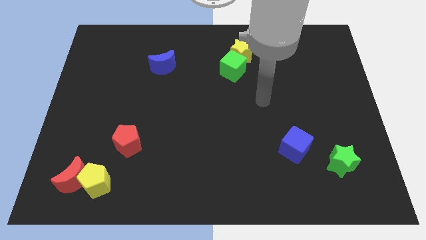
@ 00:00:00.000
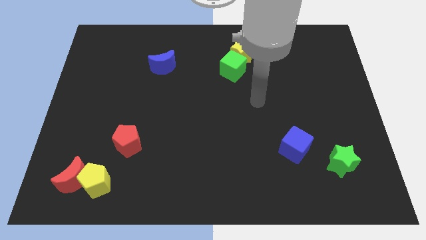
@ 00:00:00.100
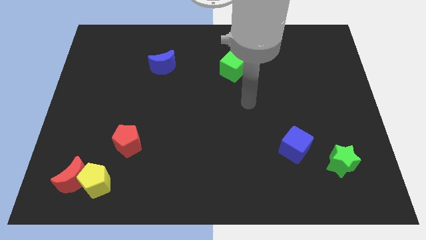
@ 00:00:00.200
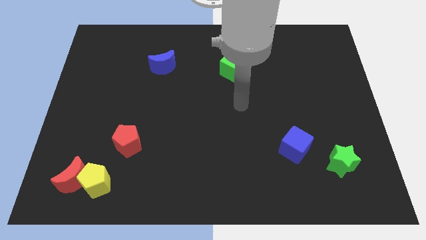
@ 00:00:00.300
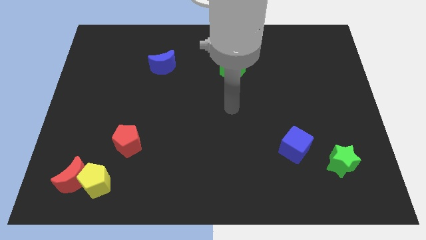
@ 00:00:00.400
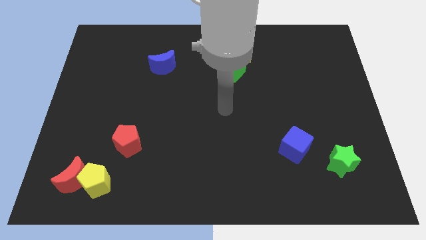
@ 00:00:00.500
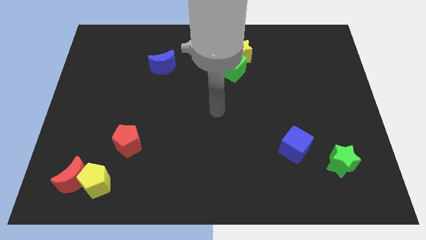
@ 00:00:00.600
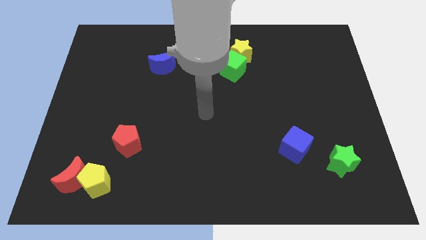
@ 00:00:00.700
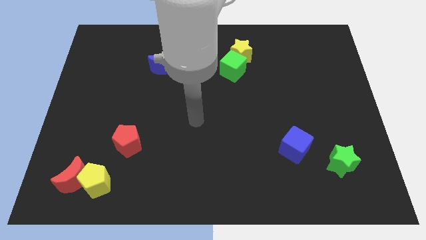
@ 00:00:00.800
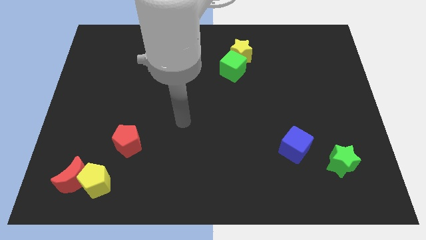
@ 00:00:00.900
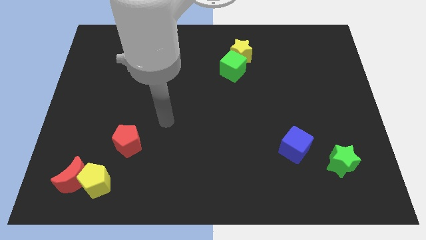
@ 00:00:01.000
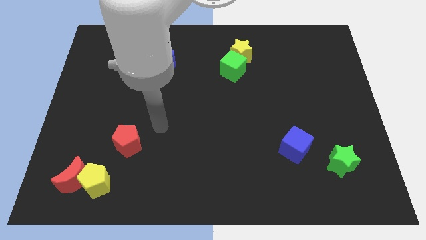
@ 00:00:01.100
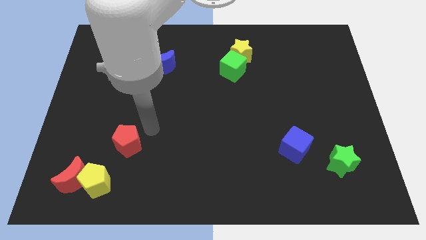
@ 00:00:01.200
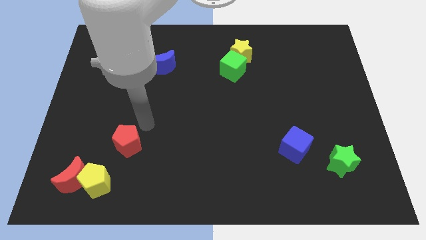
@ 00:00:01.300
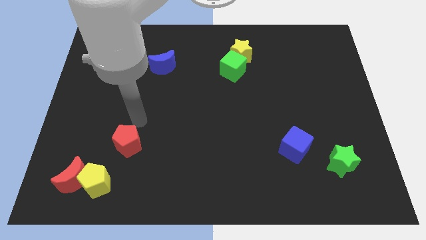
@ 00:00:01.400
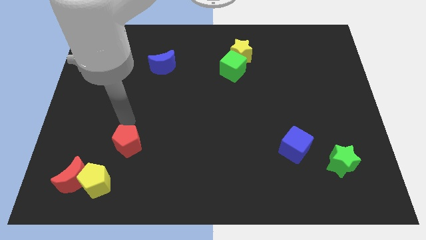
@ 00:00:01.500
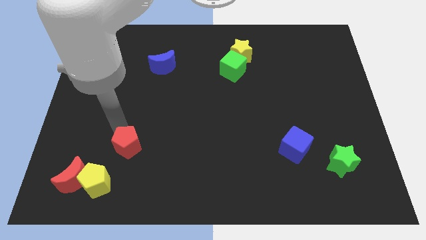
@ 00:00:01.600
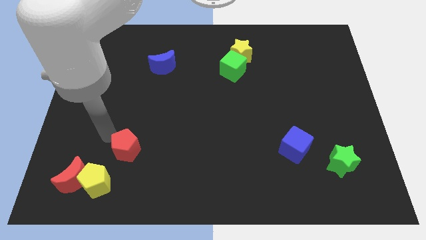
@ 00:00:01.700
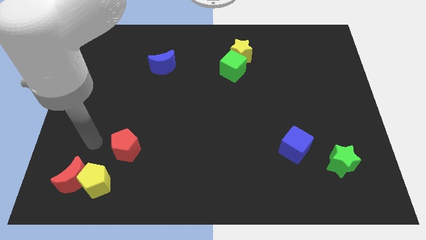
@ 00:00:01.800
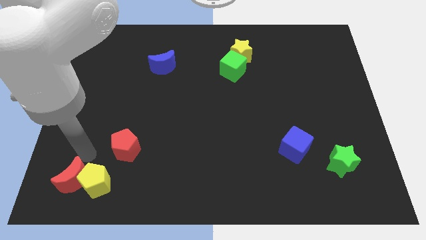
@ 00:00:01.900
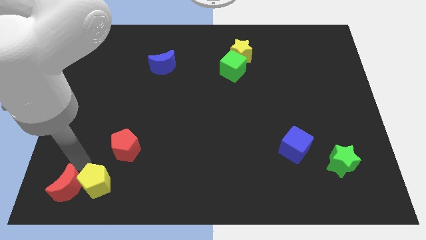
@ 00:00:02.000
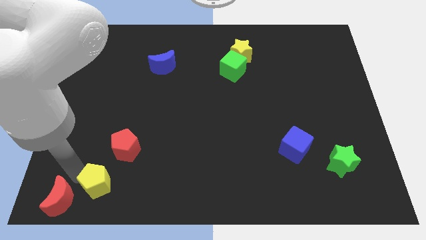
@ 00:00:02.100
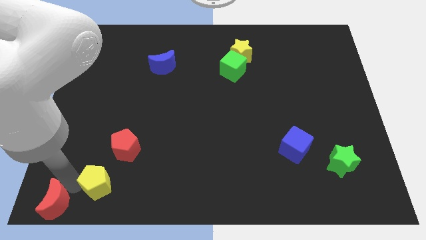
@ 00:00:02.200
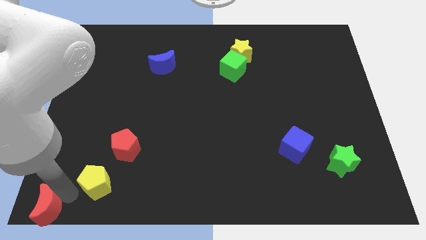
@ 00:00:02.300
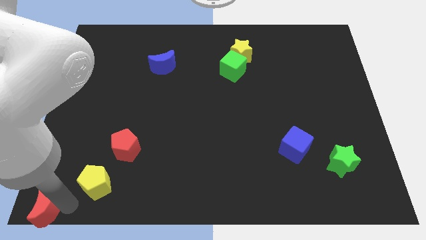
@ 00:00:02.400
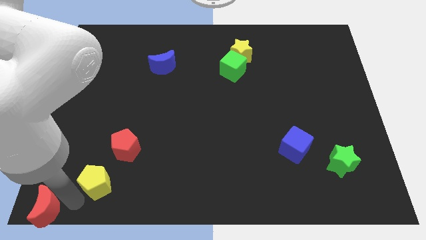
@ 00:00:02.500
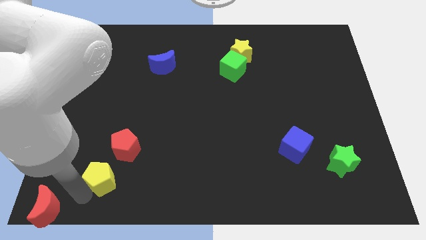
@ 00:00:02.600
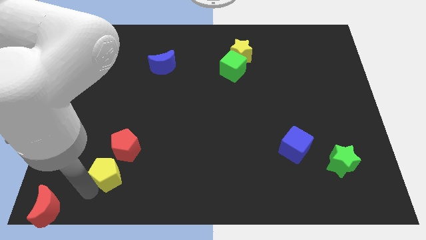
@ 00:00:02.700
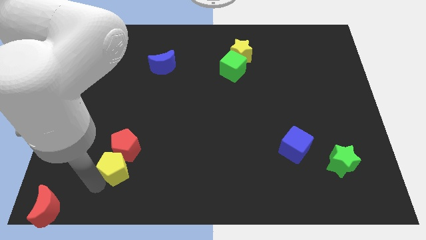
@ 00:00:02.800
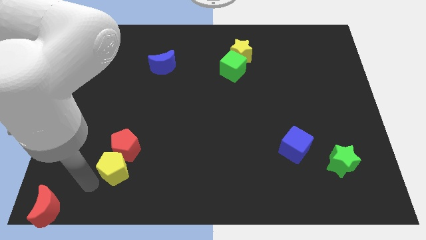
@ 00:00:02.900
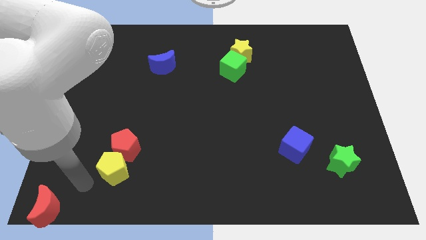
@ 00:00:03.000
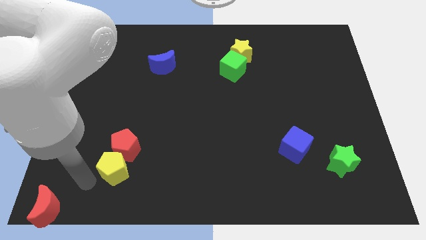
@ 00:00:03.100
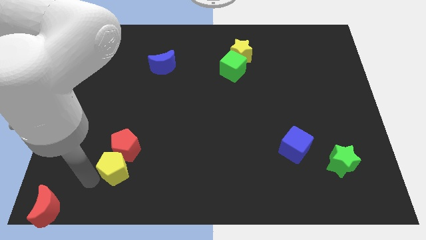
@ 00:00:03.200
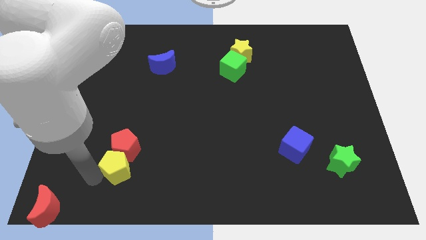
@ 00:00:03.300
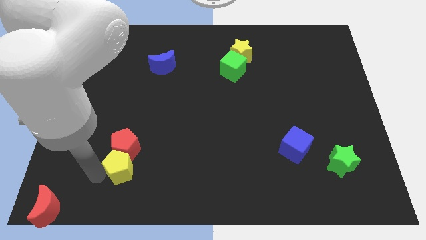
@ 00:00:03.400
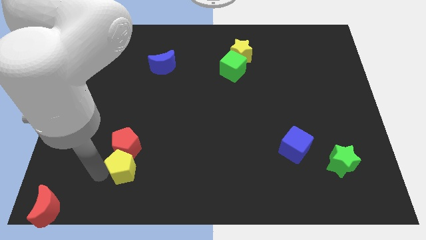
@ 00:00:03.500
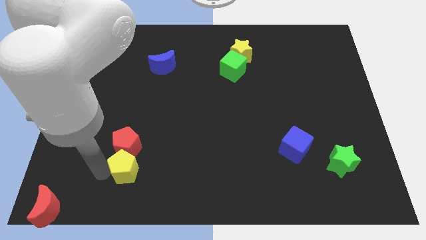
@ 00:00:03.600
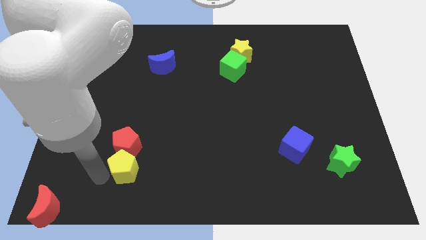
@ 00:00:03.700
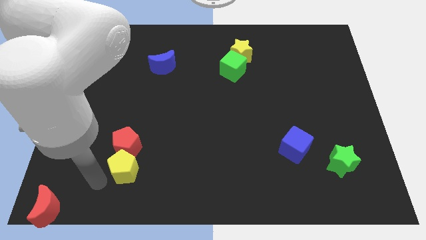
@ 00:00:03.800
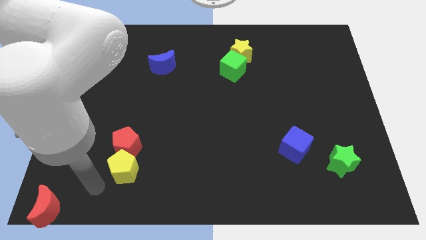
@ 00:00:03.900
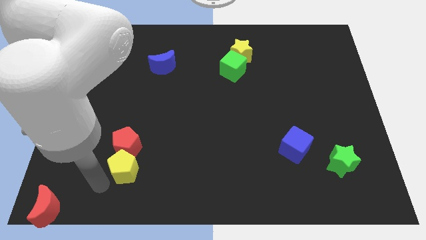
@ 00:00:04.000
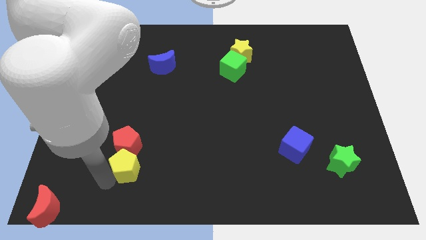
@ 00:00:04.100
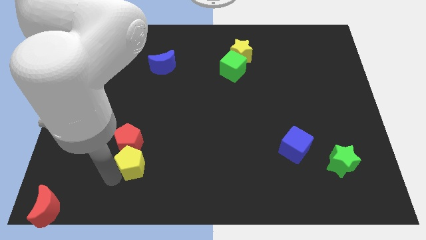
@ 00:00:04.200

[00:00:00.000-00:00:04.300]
push the yellow pentagon a little bit diagonally up and to the right

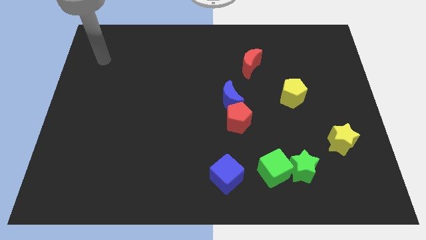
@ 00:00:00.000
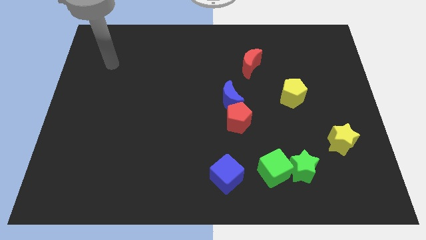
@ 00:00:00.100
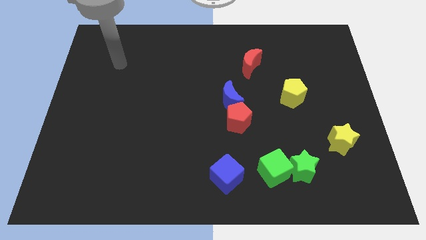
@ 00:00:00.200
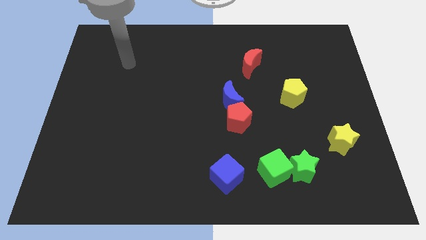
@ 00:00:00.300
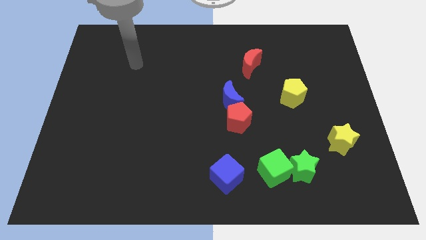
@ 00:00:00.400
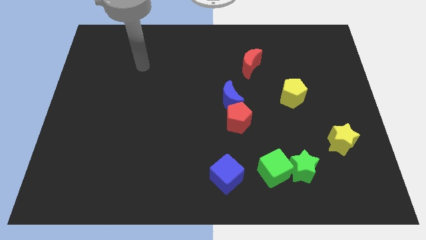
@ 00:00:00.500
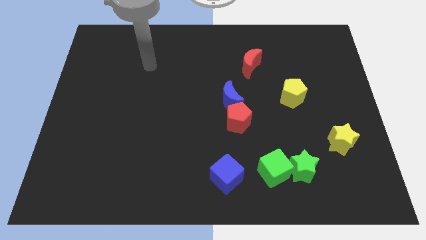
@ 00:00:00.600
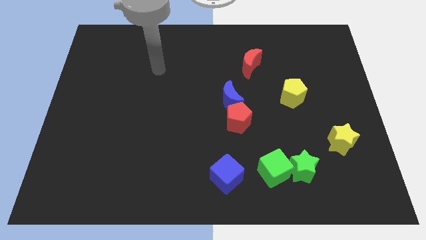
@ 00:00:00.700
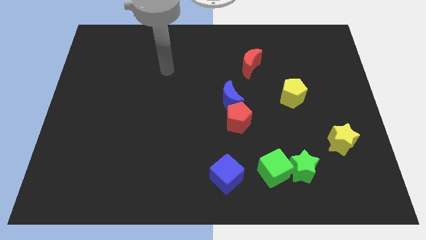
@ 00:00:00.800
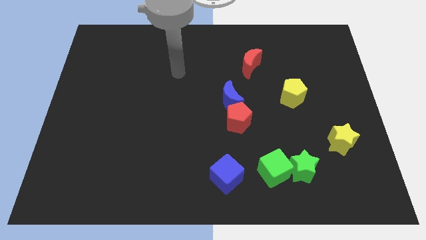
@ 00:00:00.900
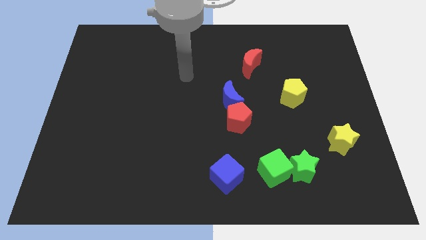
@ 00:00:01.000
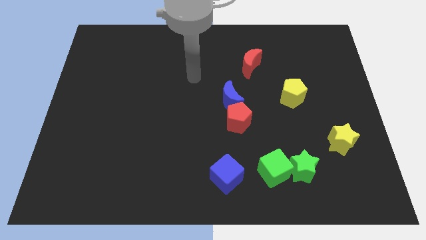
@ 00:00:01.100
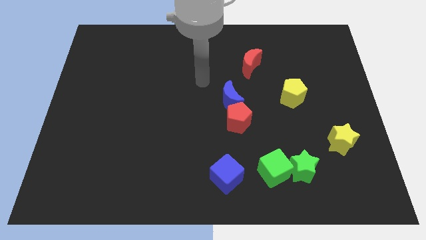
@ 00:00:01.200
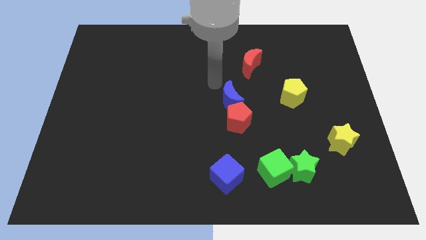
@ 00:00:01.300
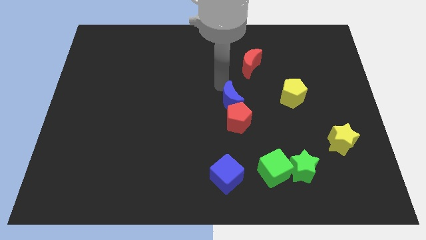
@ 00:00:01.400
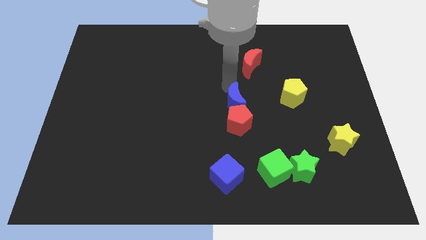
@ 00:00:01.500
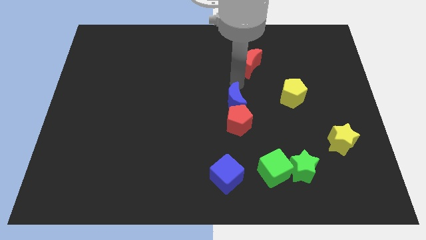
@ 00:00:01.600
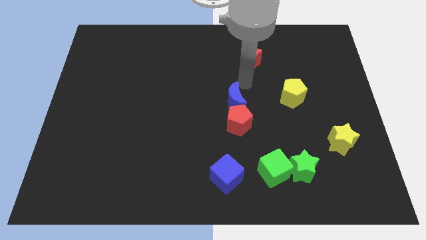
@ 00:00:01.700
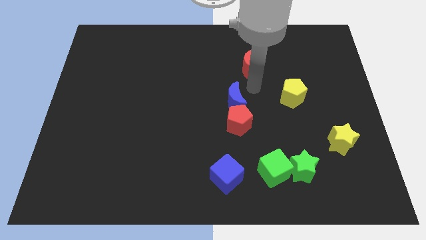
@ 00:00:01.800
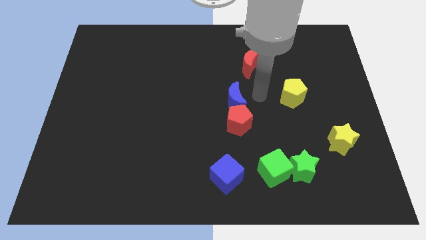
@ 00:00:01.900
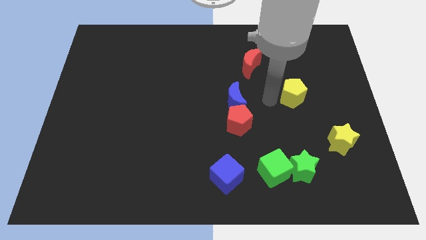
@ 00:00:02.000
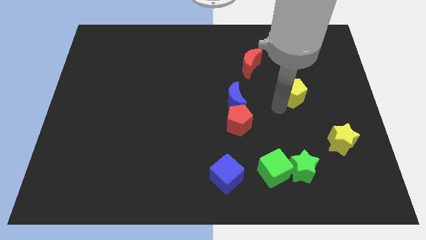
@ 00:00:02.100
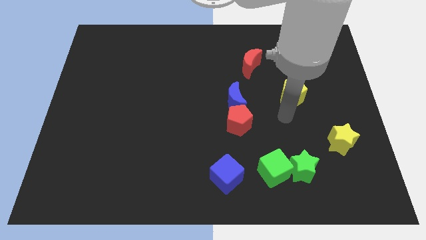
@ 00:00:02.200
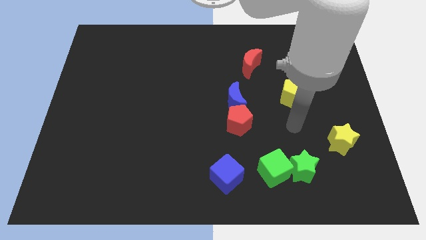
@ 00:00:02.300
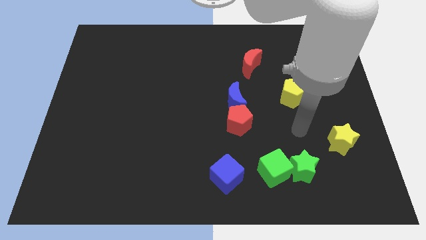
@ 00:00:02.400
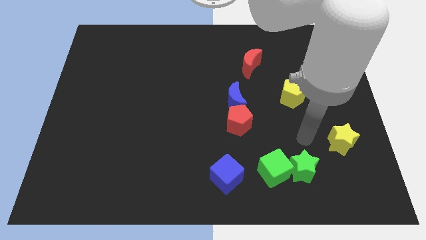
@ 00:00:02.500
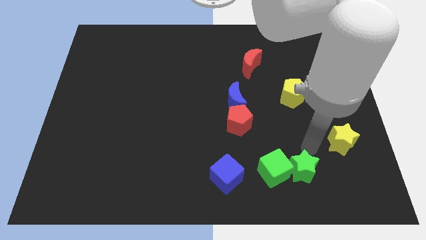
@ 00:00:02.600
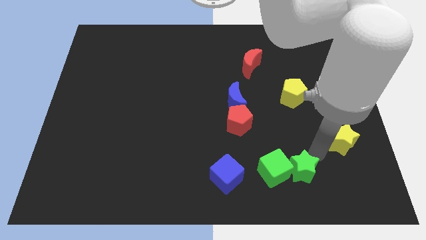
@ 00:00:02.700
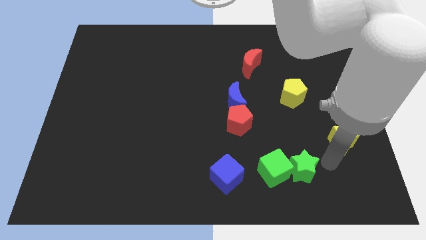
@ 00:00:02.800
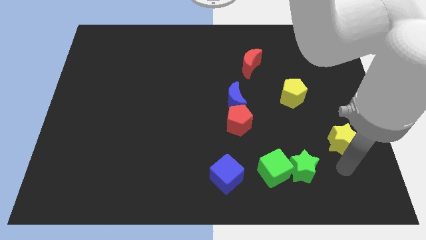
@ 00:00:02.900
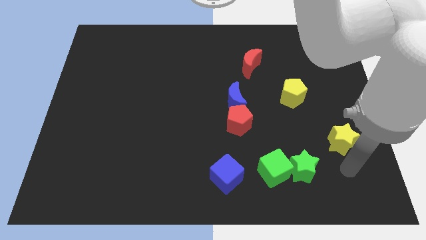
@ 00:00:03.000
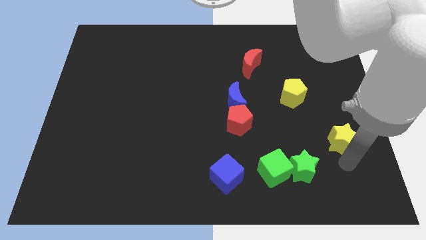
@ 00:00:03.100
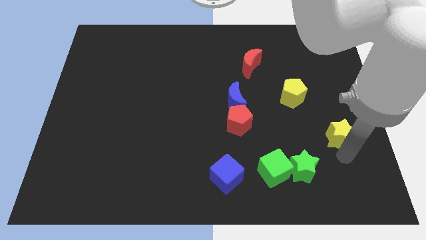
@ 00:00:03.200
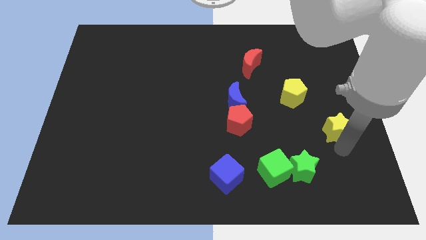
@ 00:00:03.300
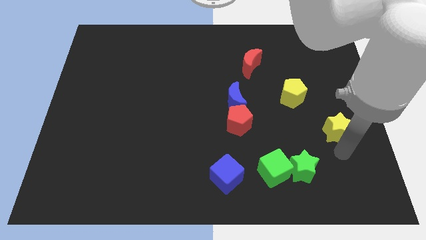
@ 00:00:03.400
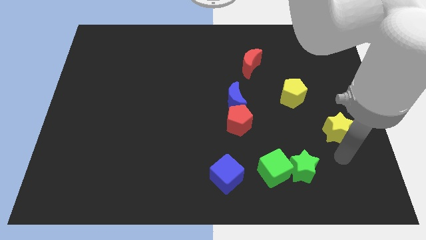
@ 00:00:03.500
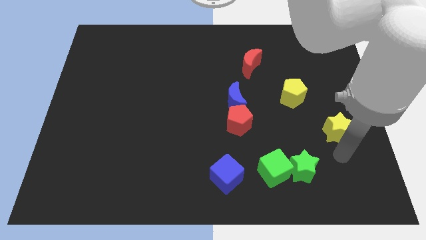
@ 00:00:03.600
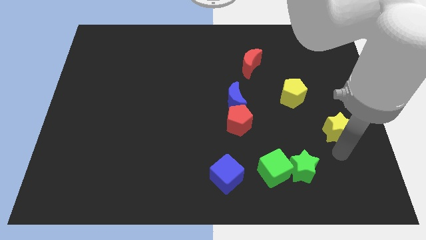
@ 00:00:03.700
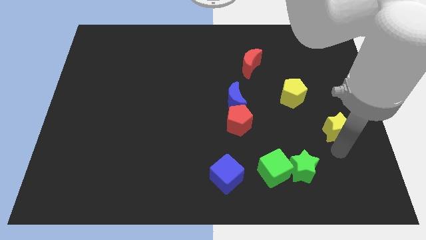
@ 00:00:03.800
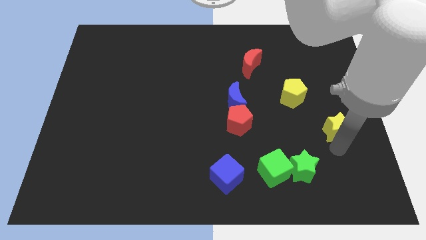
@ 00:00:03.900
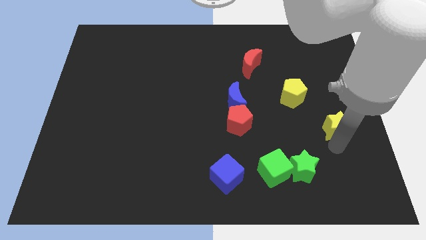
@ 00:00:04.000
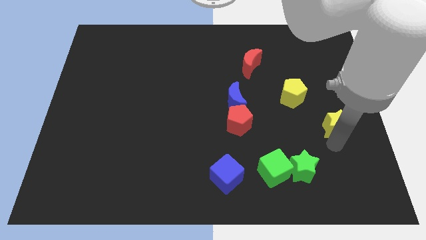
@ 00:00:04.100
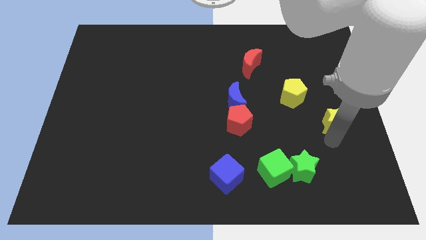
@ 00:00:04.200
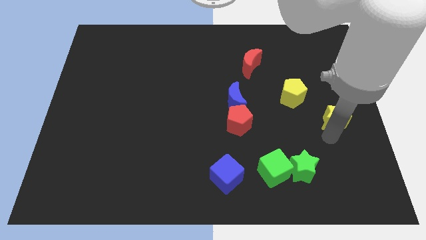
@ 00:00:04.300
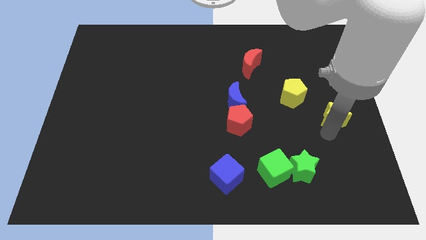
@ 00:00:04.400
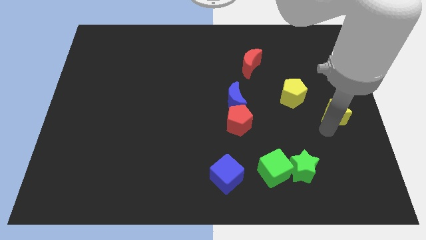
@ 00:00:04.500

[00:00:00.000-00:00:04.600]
push the yellow star a little bit up
